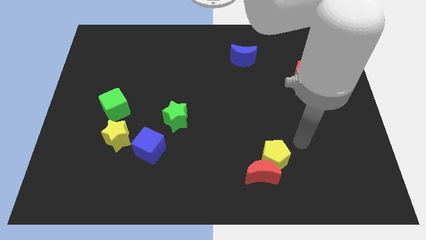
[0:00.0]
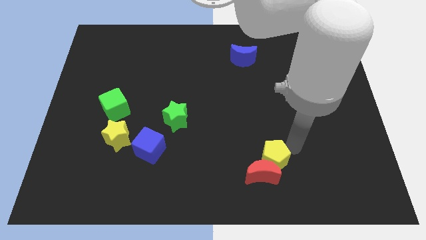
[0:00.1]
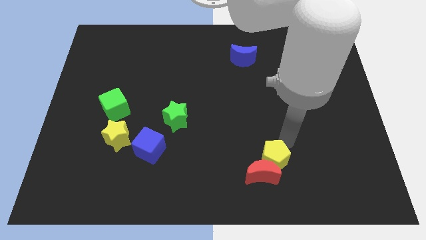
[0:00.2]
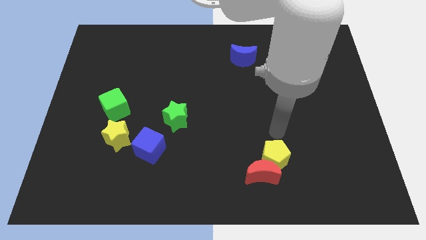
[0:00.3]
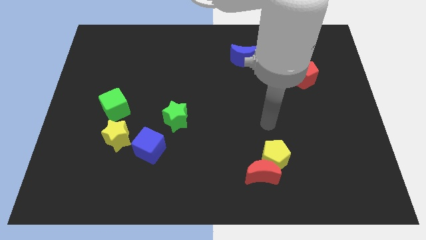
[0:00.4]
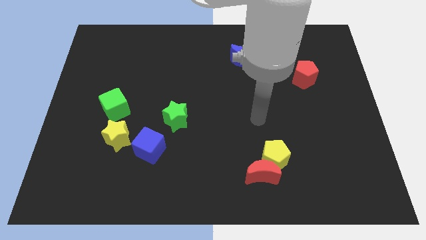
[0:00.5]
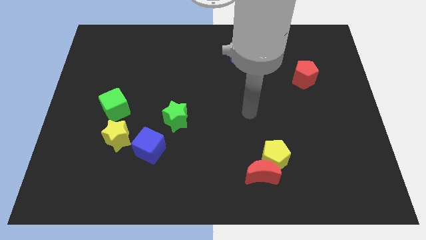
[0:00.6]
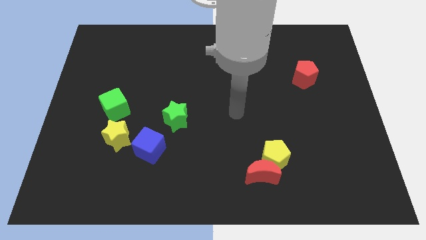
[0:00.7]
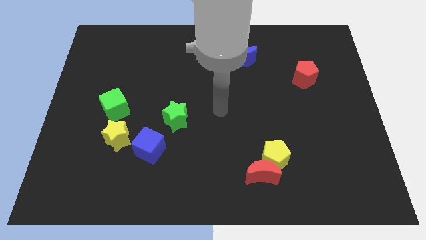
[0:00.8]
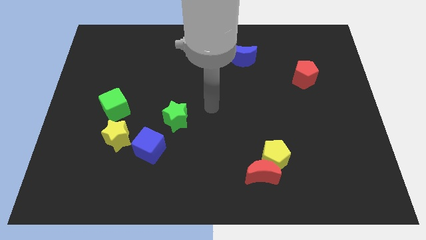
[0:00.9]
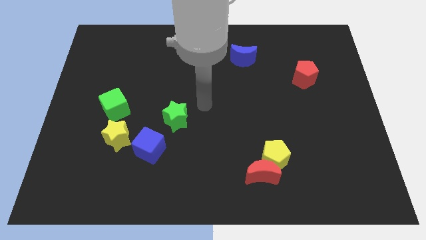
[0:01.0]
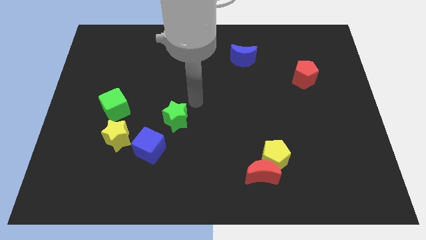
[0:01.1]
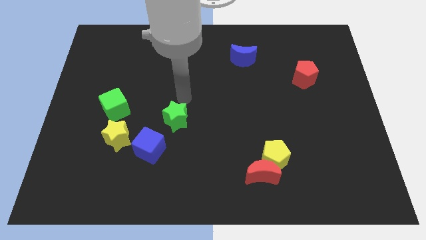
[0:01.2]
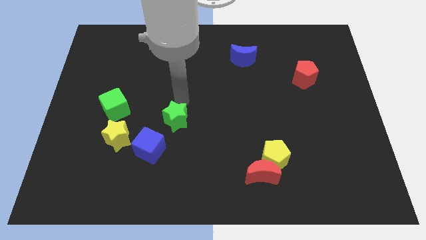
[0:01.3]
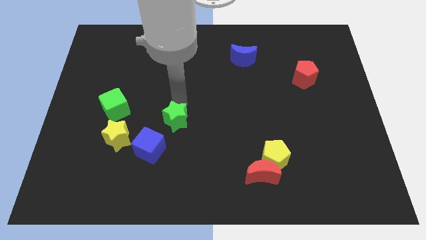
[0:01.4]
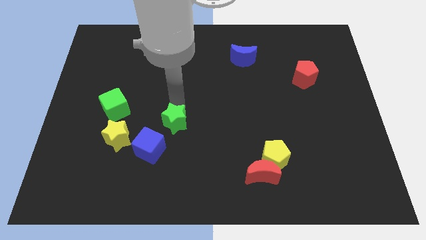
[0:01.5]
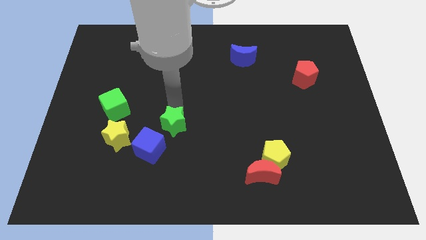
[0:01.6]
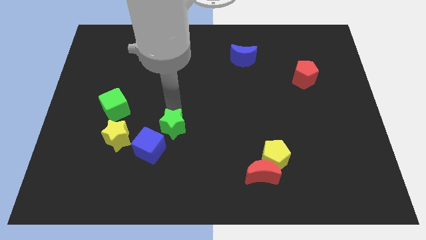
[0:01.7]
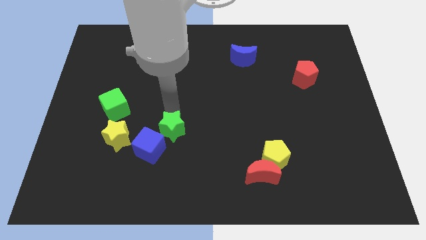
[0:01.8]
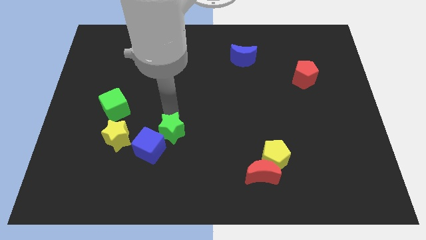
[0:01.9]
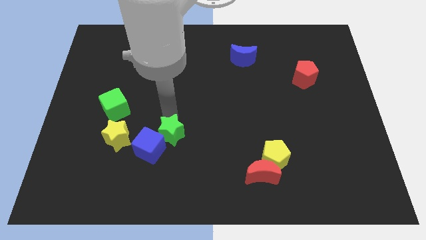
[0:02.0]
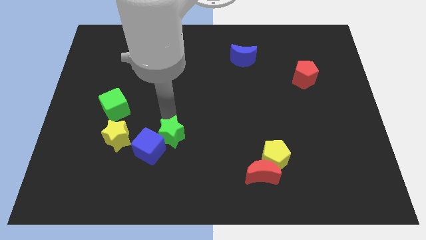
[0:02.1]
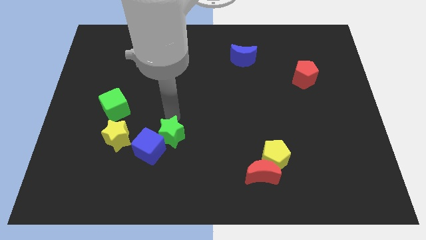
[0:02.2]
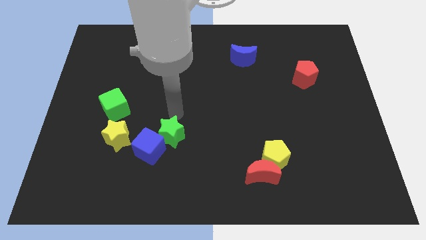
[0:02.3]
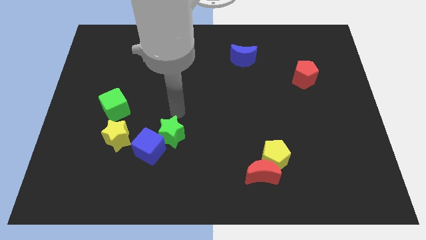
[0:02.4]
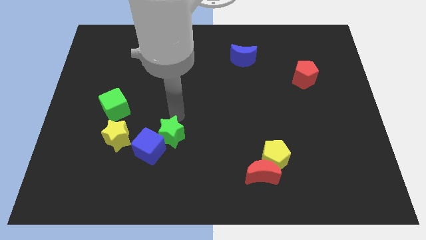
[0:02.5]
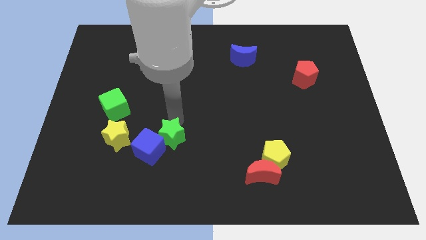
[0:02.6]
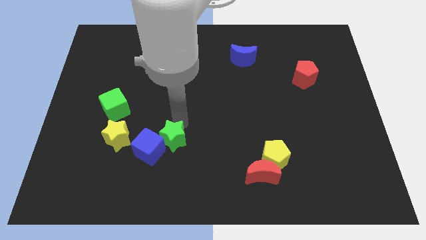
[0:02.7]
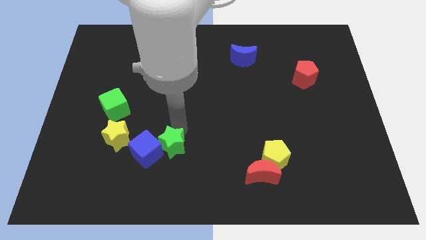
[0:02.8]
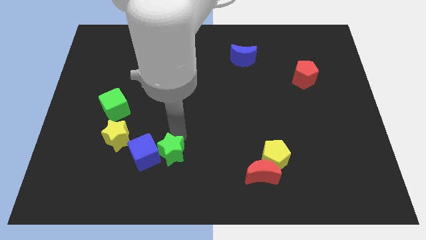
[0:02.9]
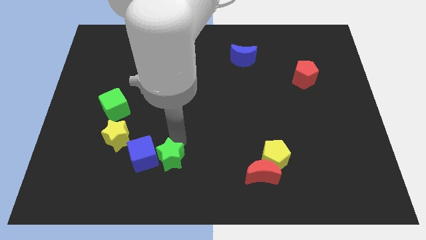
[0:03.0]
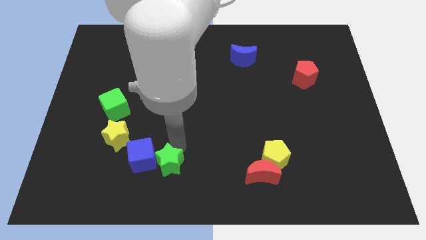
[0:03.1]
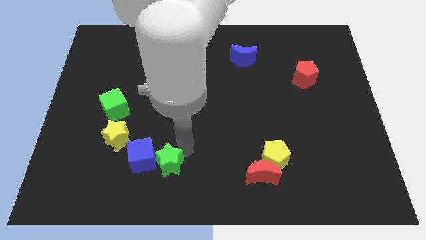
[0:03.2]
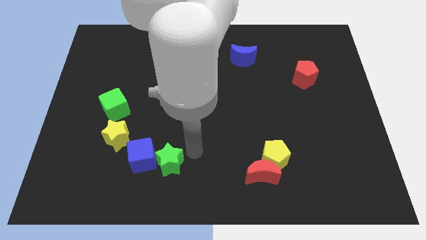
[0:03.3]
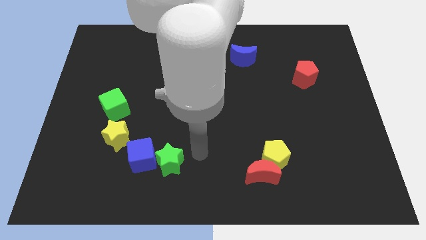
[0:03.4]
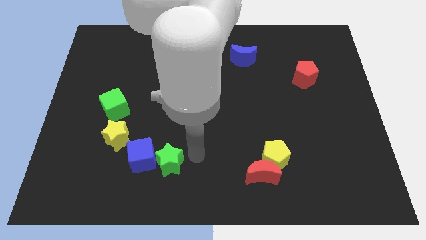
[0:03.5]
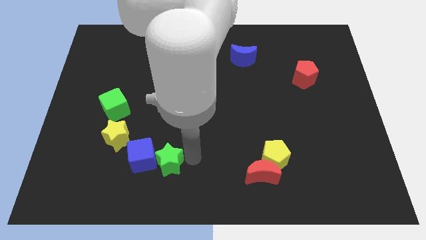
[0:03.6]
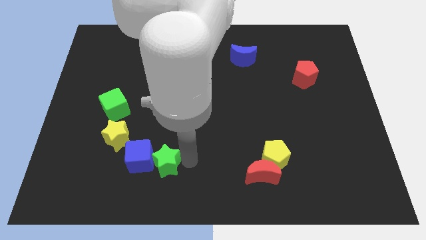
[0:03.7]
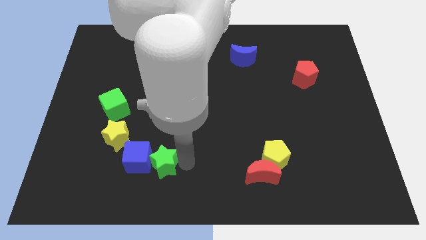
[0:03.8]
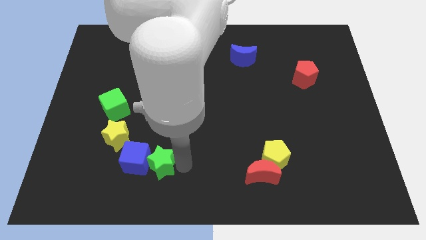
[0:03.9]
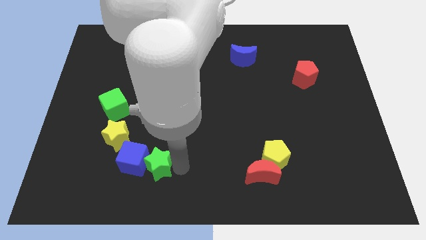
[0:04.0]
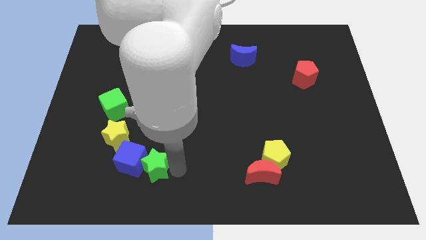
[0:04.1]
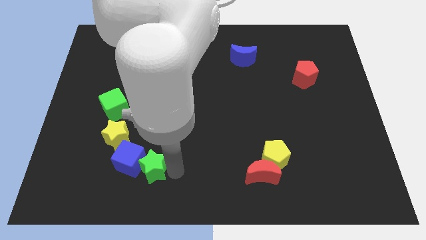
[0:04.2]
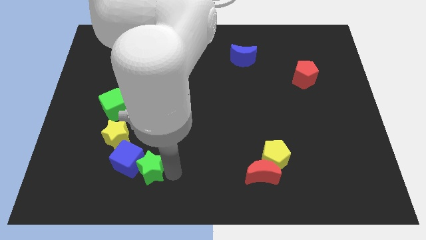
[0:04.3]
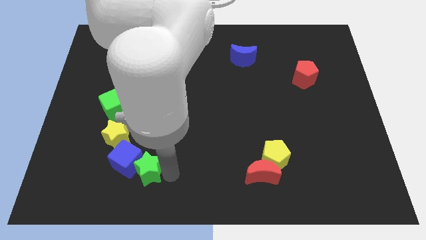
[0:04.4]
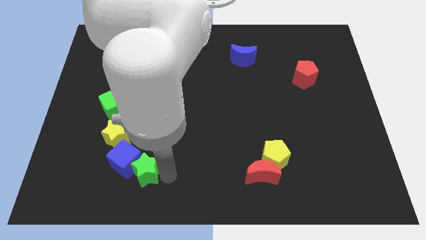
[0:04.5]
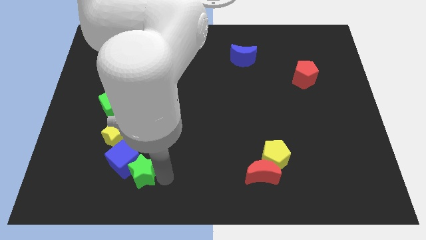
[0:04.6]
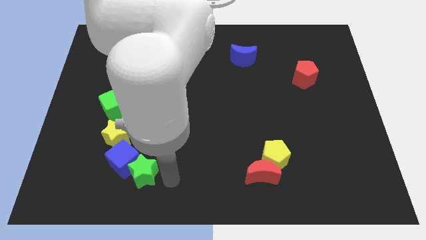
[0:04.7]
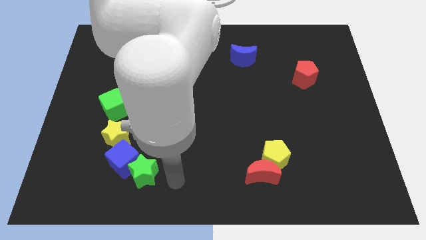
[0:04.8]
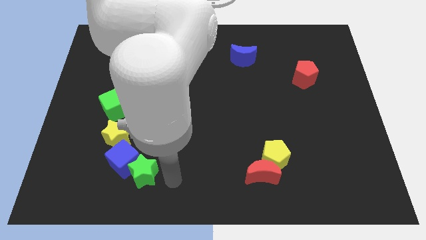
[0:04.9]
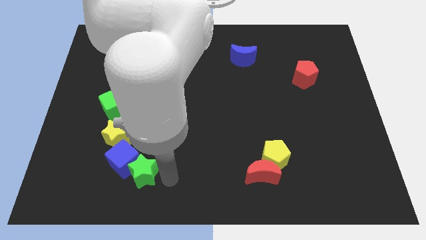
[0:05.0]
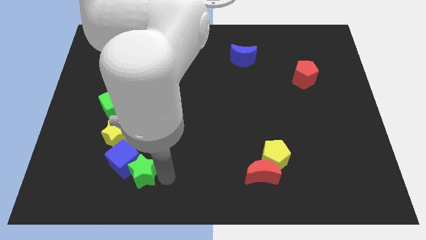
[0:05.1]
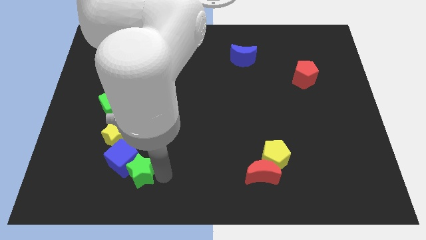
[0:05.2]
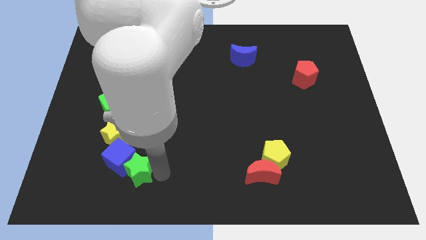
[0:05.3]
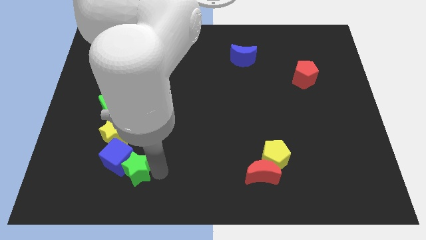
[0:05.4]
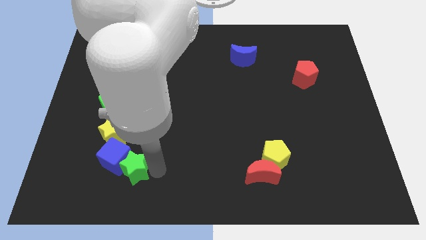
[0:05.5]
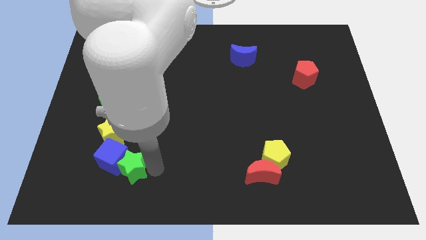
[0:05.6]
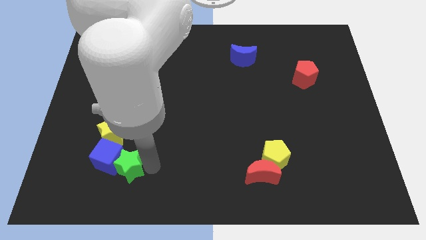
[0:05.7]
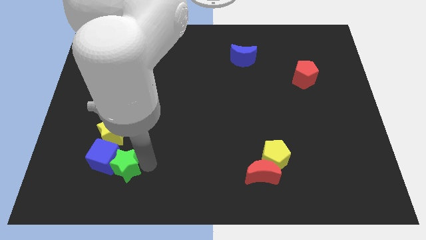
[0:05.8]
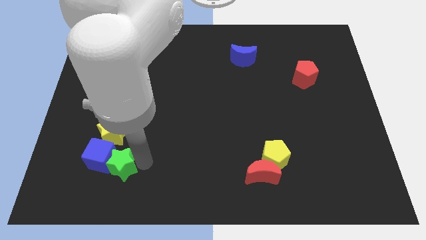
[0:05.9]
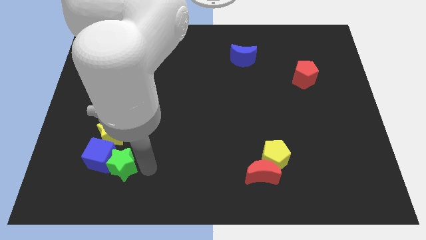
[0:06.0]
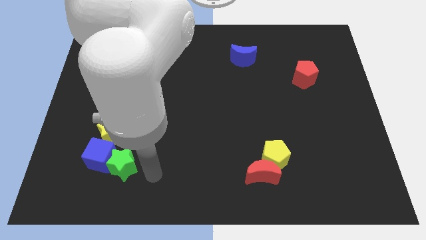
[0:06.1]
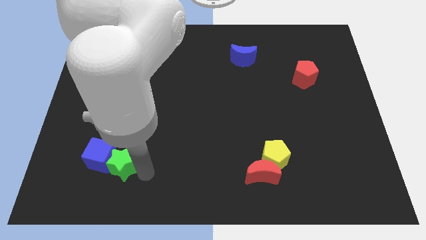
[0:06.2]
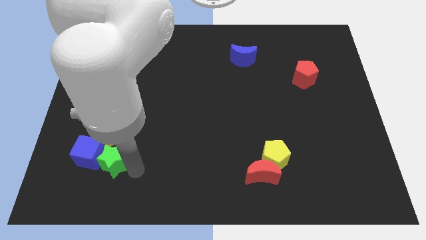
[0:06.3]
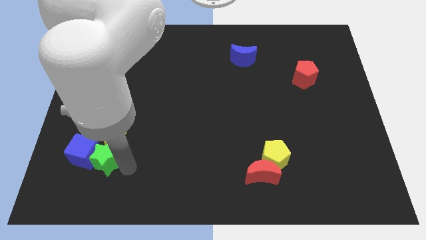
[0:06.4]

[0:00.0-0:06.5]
put the green star diagonally down and to the left of the yellow star
